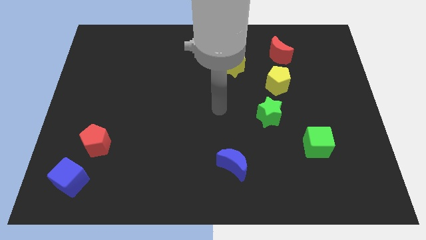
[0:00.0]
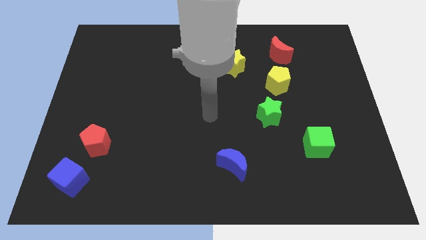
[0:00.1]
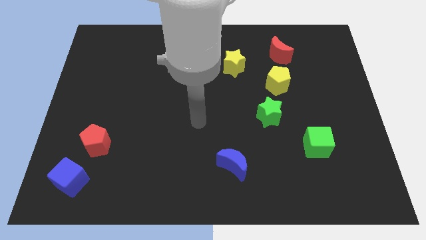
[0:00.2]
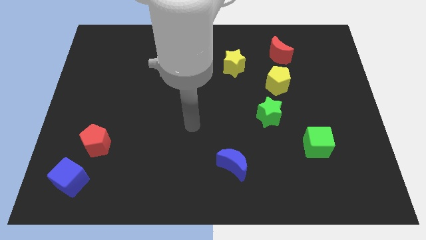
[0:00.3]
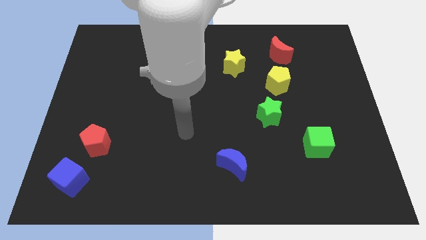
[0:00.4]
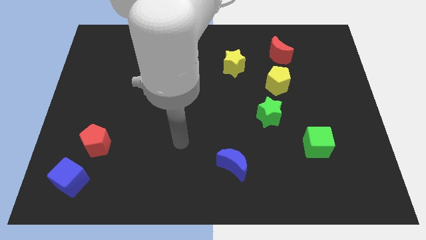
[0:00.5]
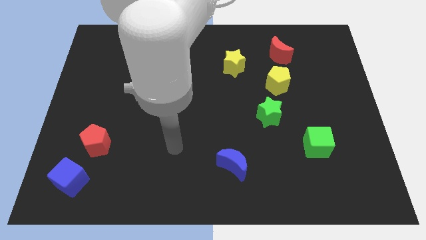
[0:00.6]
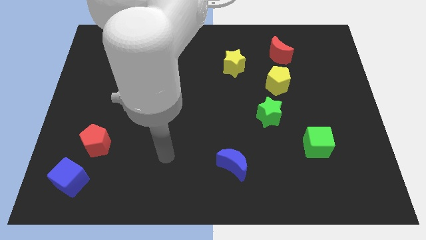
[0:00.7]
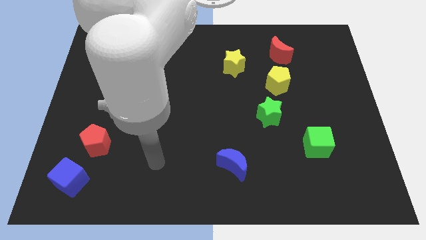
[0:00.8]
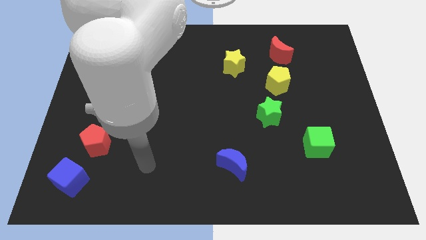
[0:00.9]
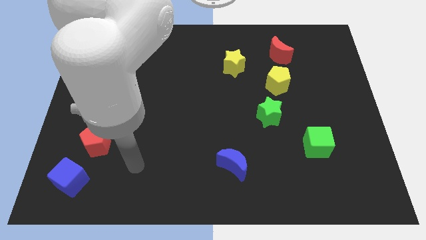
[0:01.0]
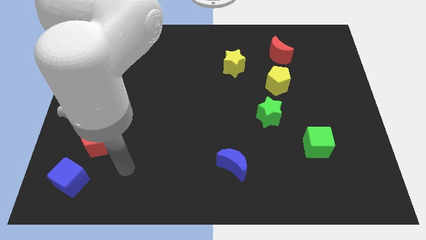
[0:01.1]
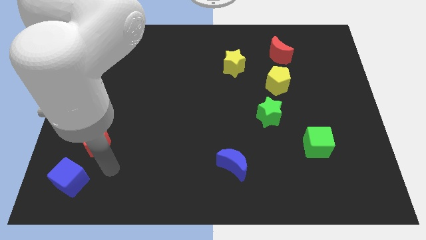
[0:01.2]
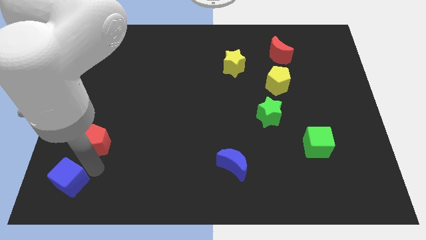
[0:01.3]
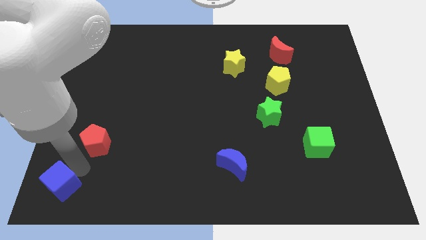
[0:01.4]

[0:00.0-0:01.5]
move the red pentagon away from the blue cube

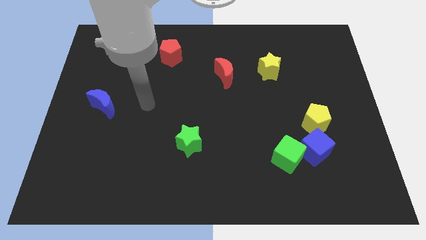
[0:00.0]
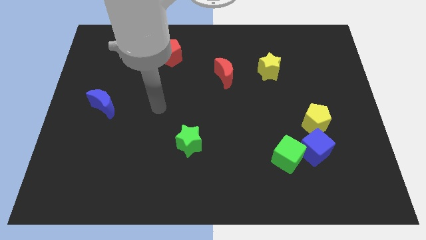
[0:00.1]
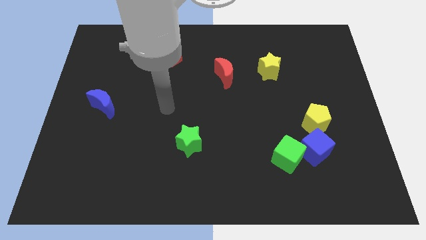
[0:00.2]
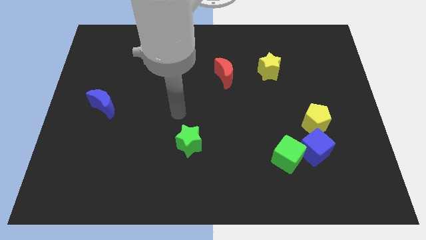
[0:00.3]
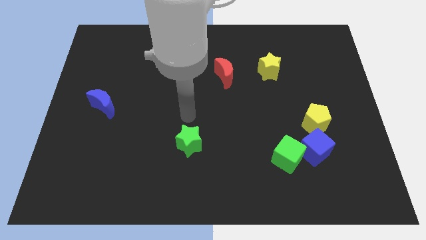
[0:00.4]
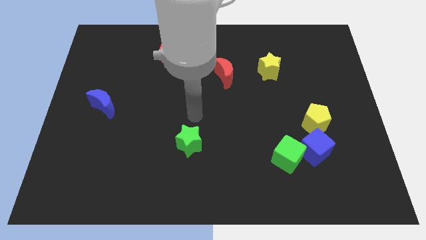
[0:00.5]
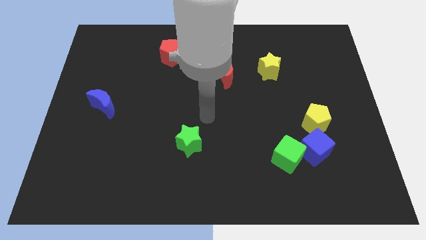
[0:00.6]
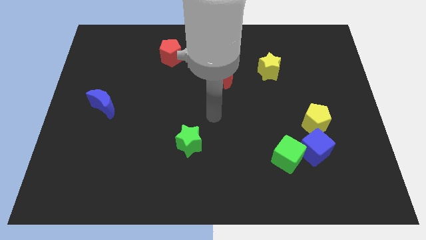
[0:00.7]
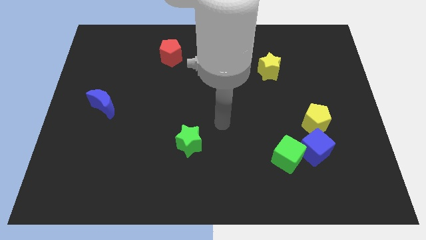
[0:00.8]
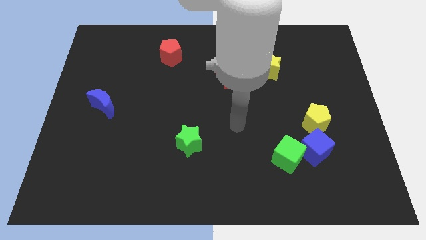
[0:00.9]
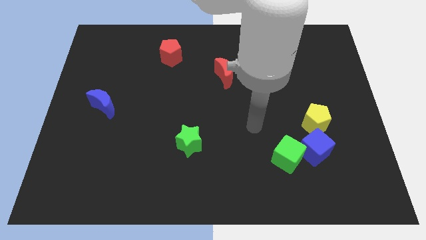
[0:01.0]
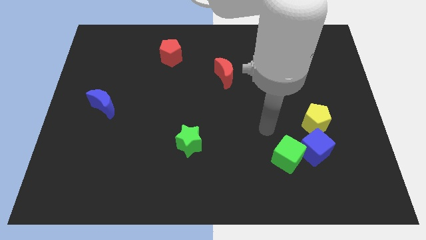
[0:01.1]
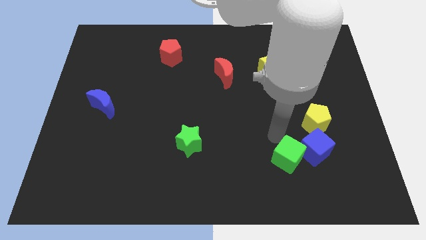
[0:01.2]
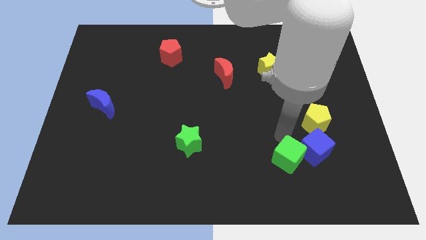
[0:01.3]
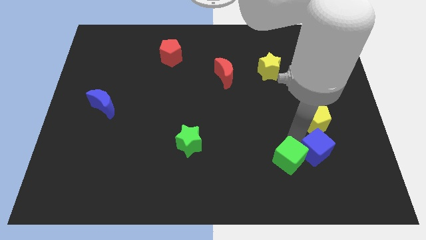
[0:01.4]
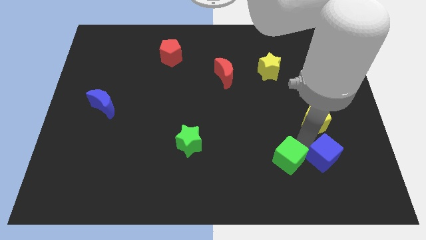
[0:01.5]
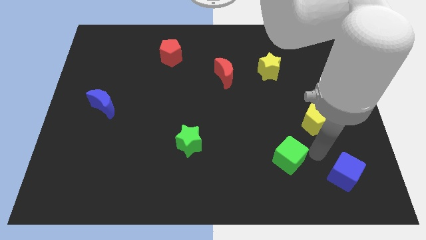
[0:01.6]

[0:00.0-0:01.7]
separate the green cube from the blue cube

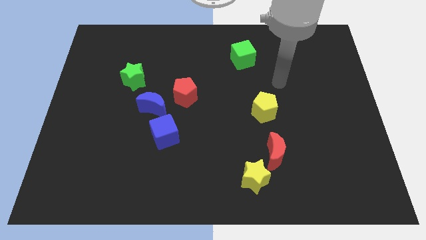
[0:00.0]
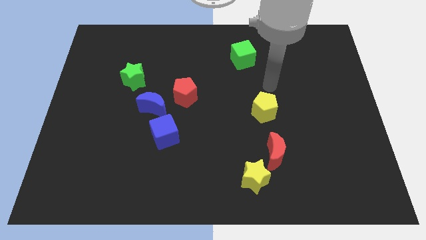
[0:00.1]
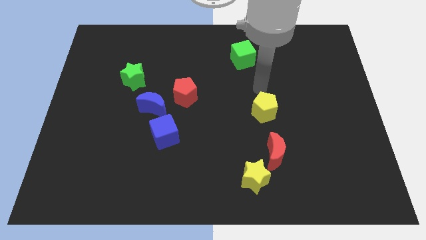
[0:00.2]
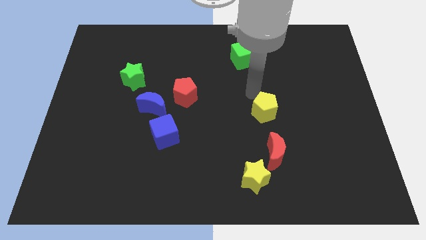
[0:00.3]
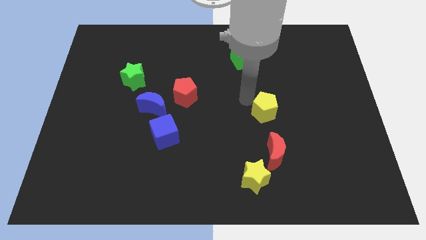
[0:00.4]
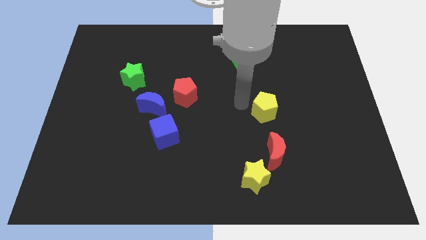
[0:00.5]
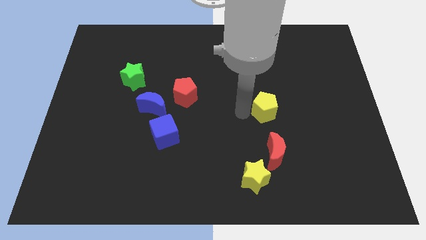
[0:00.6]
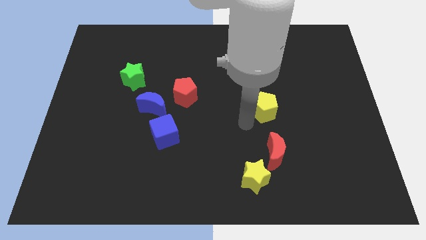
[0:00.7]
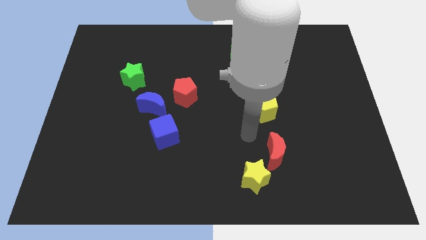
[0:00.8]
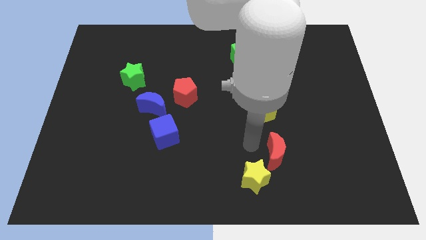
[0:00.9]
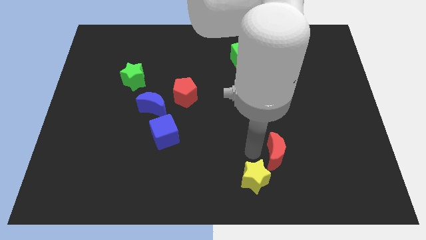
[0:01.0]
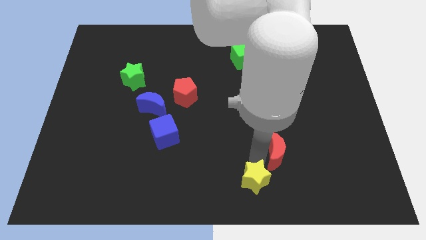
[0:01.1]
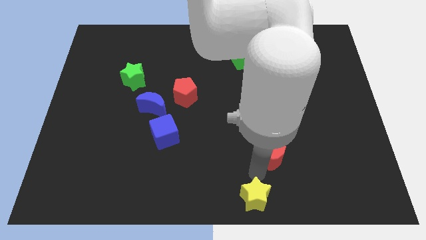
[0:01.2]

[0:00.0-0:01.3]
pull the red moon apart from the yellow star

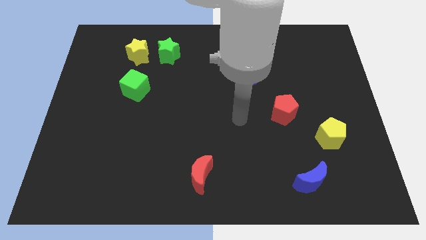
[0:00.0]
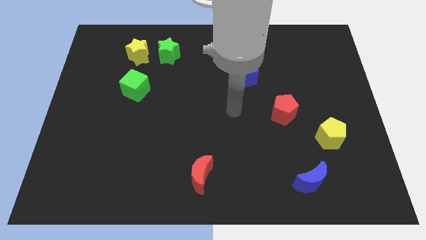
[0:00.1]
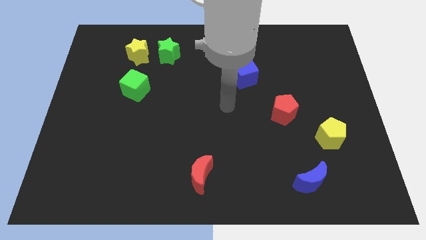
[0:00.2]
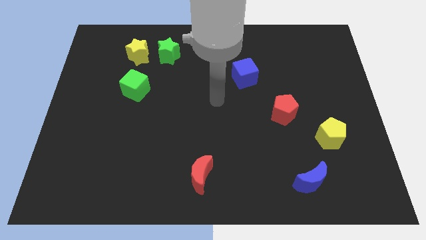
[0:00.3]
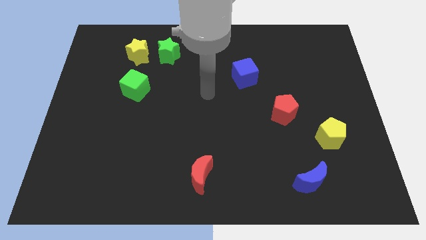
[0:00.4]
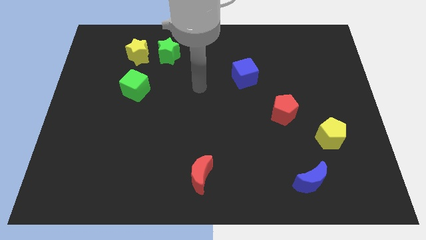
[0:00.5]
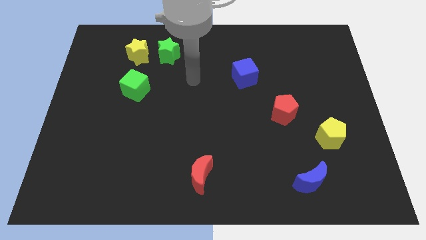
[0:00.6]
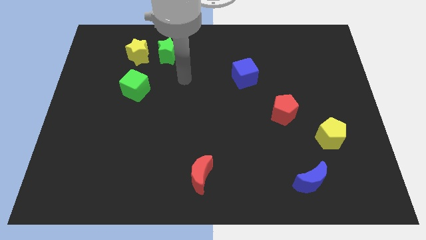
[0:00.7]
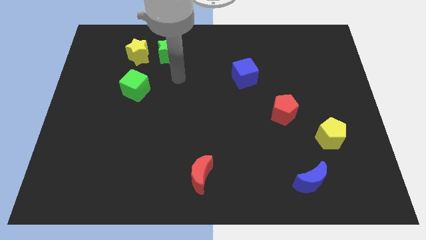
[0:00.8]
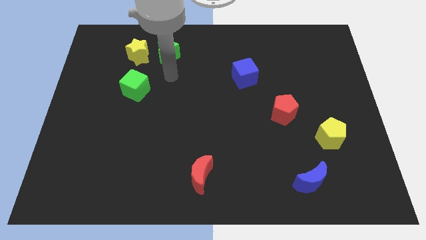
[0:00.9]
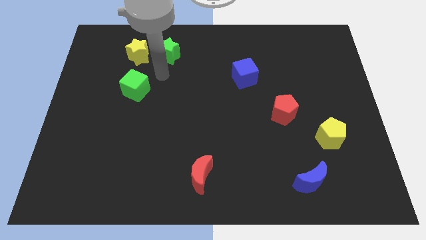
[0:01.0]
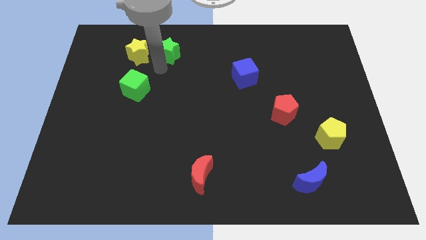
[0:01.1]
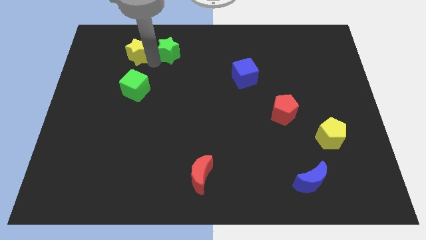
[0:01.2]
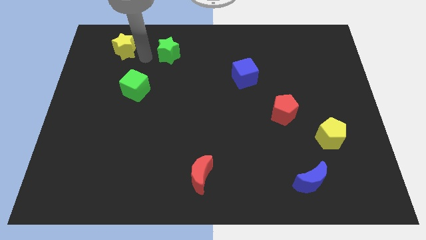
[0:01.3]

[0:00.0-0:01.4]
move the green star away from the yellow star

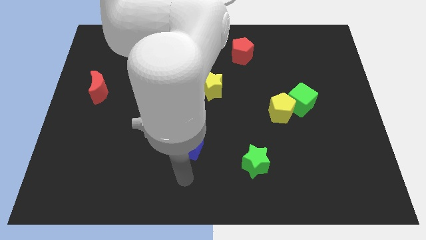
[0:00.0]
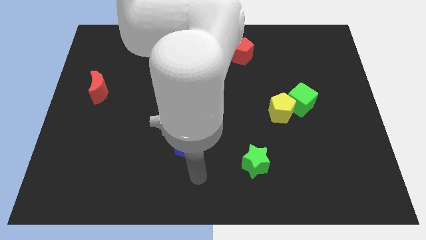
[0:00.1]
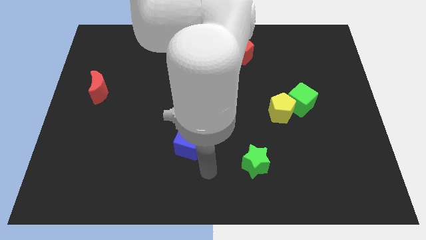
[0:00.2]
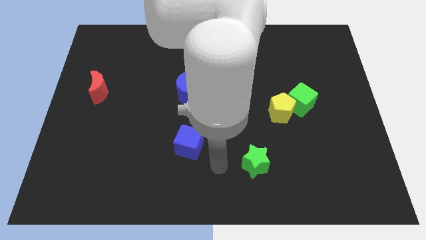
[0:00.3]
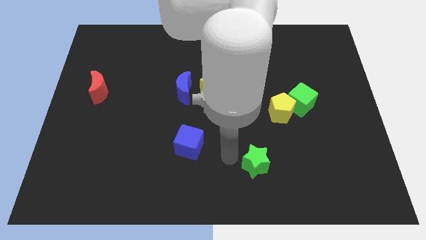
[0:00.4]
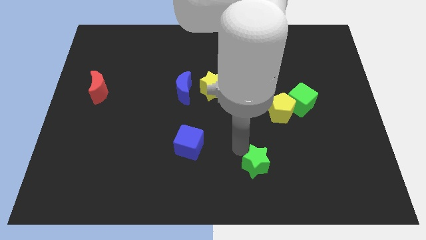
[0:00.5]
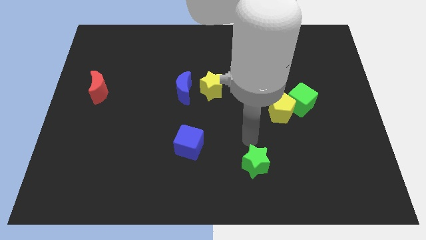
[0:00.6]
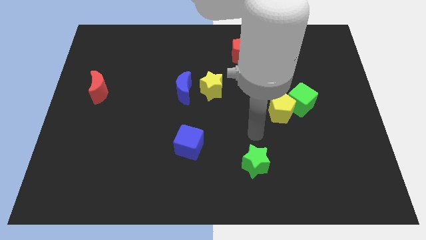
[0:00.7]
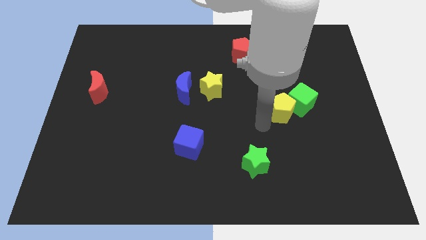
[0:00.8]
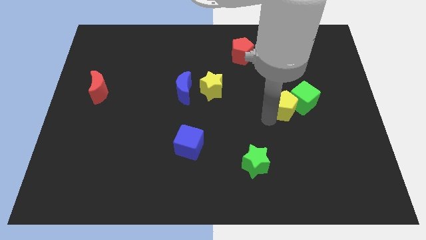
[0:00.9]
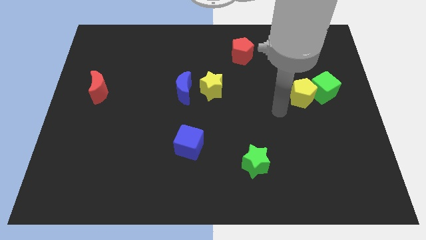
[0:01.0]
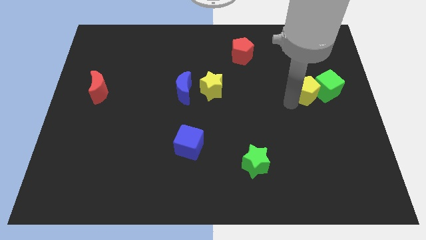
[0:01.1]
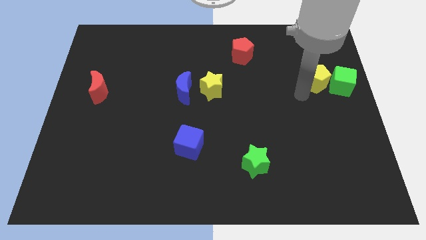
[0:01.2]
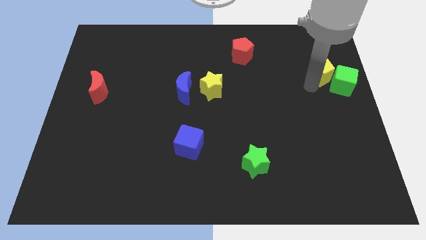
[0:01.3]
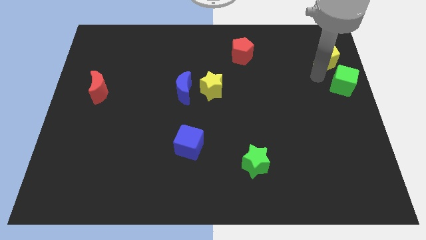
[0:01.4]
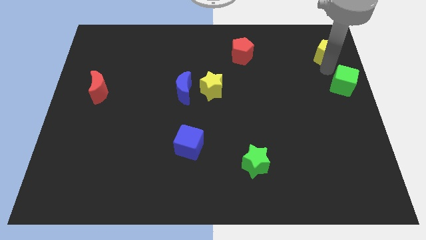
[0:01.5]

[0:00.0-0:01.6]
separate the green cube from the yellow pentagon

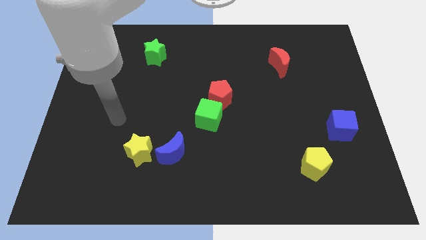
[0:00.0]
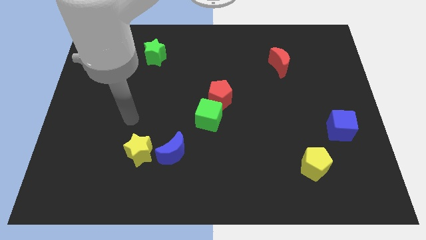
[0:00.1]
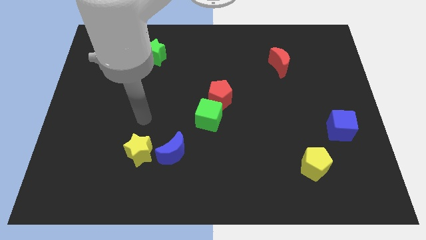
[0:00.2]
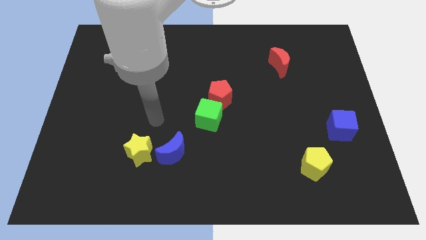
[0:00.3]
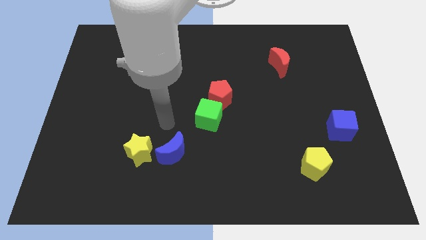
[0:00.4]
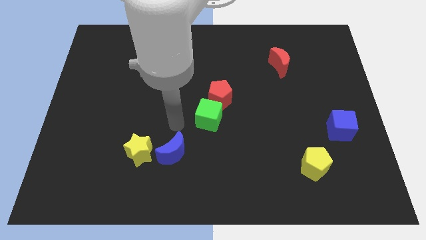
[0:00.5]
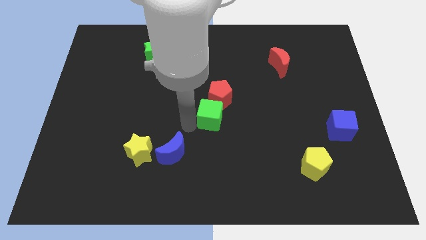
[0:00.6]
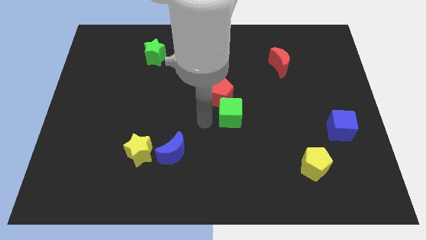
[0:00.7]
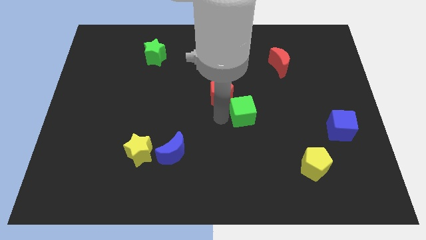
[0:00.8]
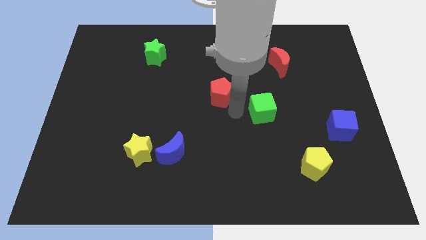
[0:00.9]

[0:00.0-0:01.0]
separate the red pentagon from the green cube

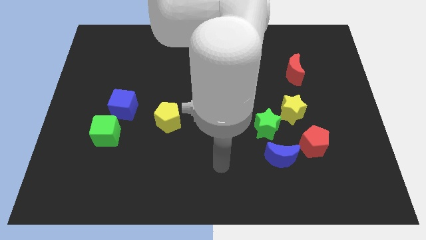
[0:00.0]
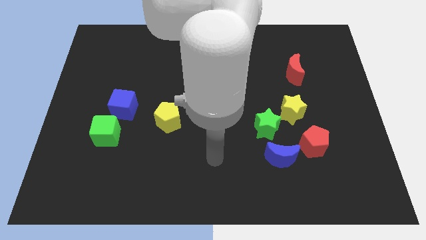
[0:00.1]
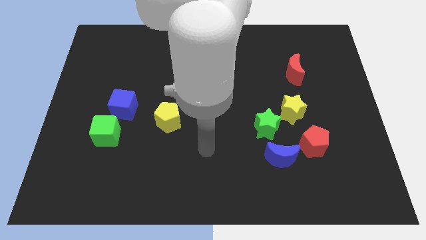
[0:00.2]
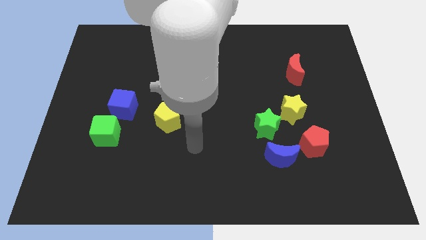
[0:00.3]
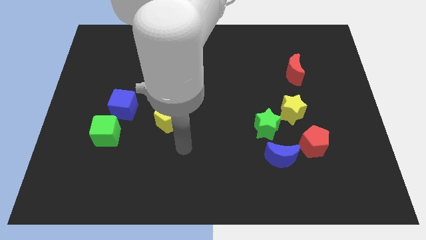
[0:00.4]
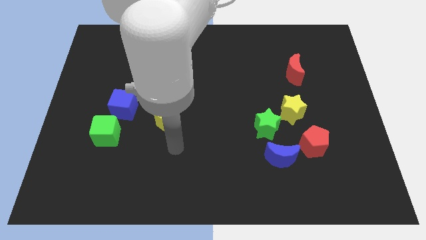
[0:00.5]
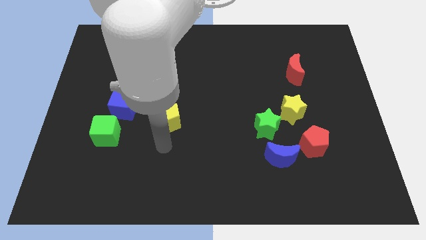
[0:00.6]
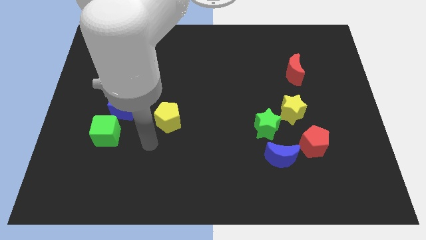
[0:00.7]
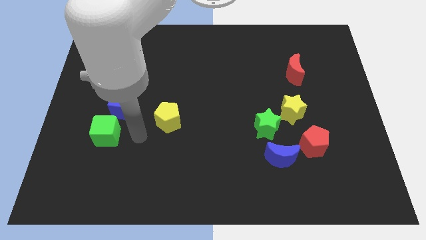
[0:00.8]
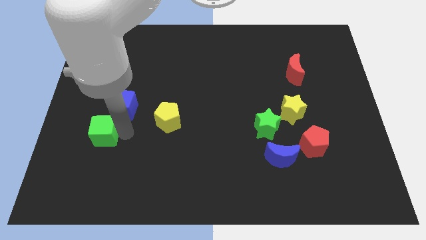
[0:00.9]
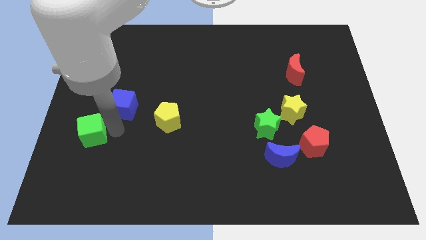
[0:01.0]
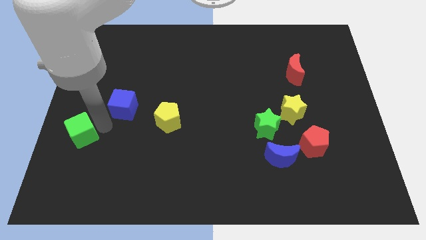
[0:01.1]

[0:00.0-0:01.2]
move the blue cube away from the green cube
